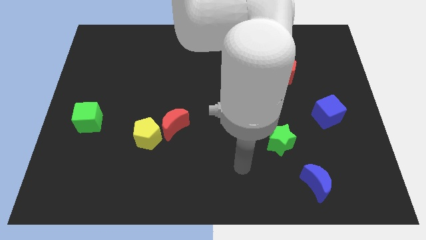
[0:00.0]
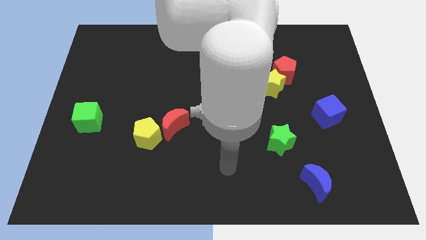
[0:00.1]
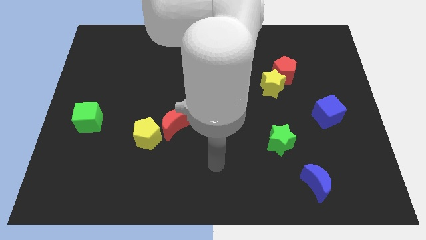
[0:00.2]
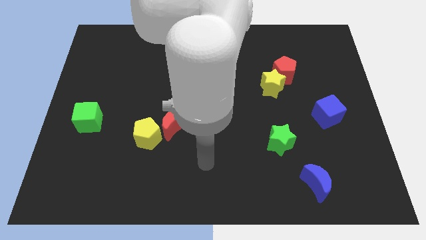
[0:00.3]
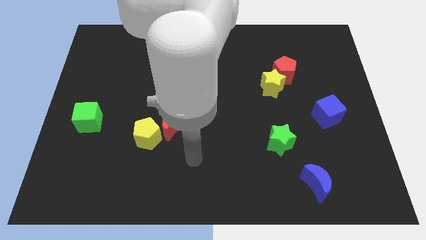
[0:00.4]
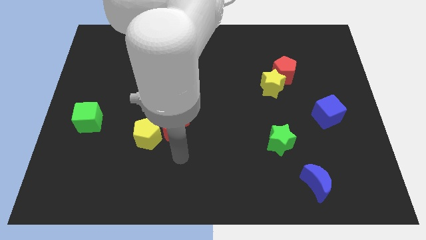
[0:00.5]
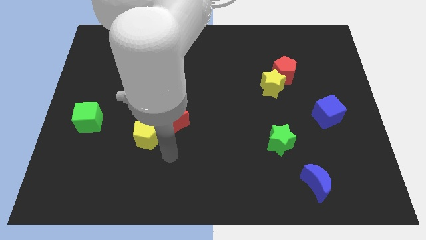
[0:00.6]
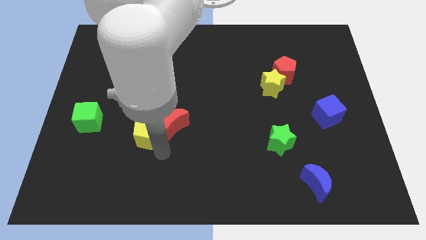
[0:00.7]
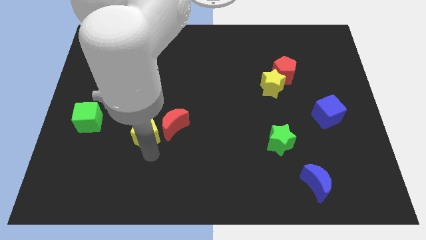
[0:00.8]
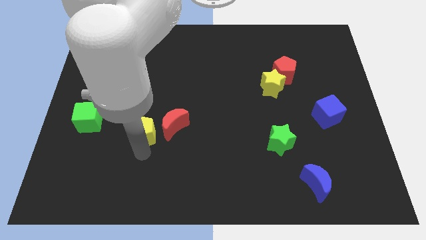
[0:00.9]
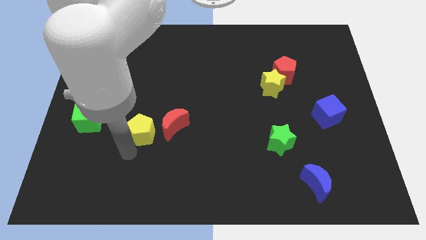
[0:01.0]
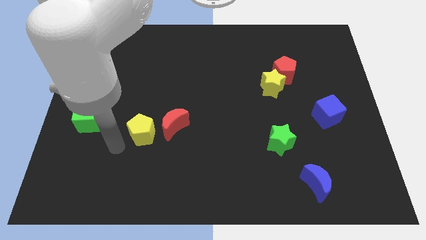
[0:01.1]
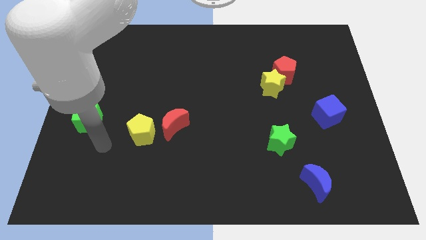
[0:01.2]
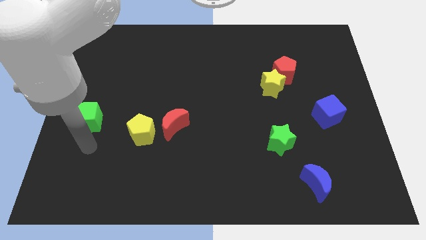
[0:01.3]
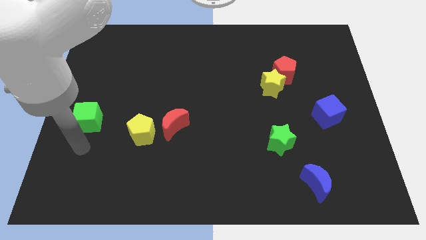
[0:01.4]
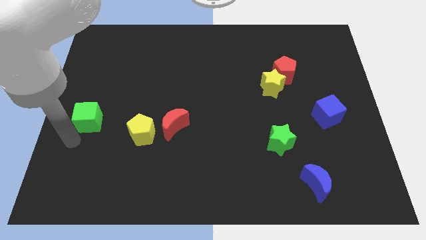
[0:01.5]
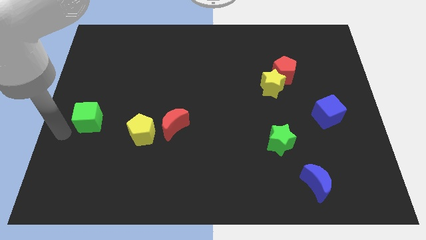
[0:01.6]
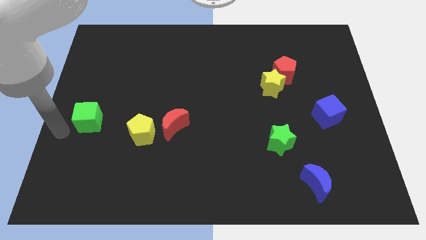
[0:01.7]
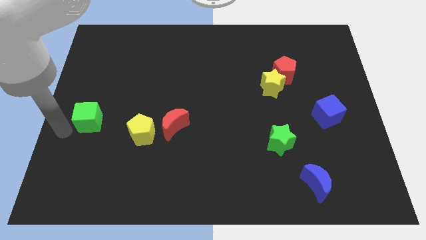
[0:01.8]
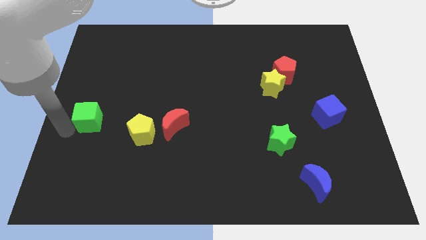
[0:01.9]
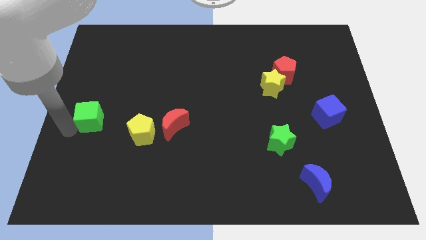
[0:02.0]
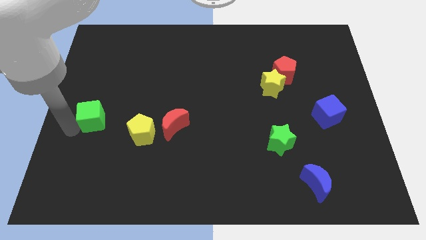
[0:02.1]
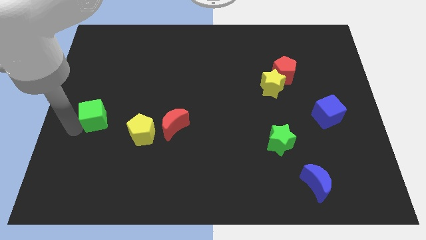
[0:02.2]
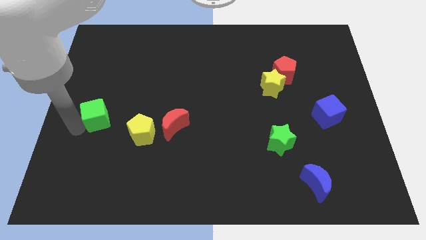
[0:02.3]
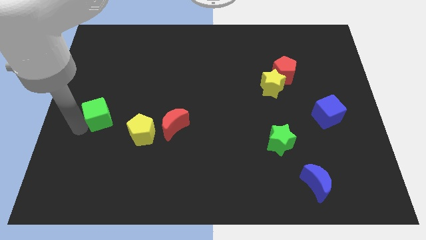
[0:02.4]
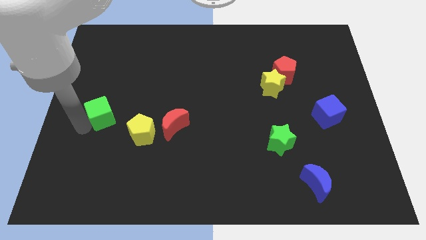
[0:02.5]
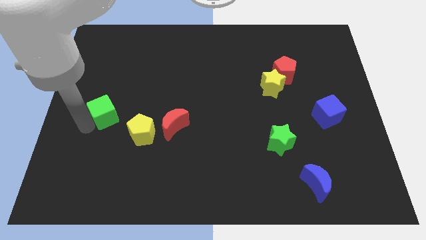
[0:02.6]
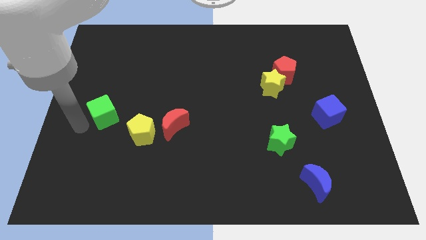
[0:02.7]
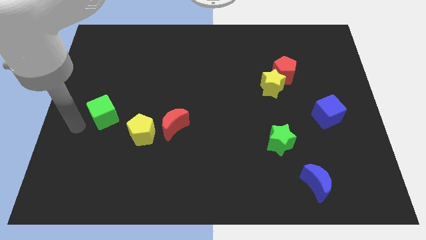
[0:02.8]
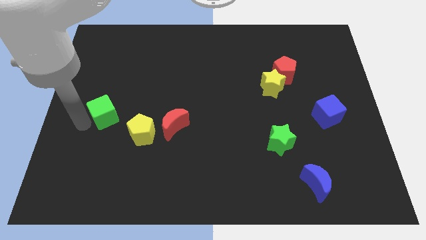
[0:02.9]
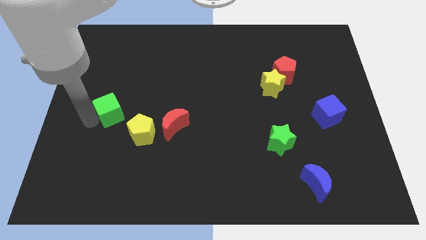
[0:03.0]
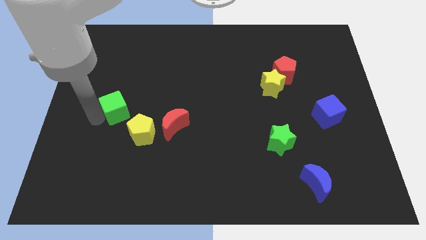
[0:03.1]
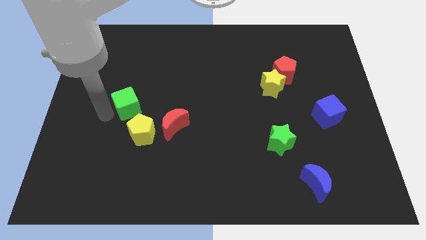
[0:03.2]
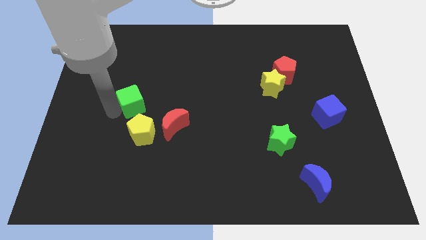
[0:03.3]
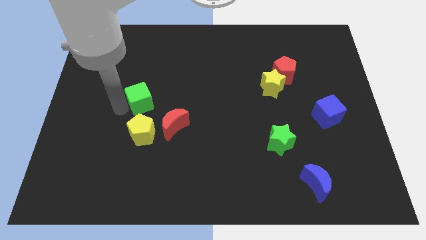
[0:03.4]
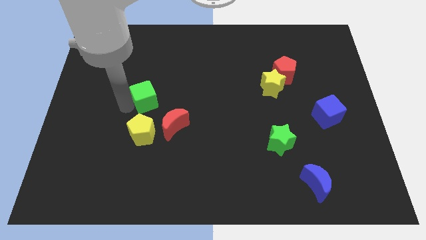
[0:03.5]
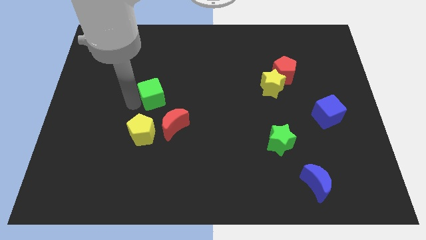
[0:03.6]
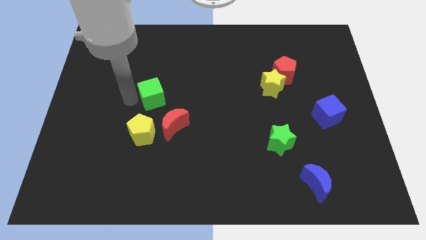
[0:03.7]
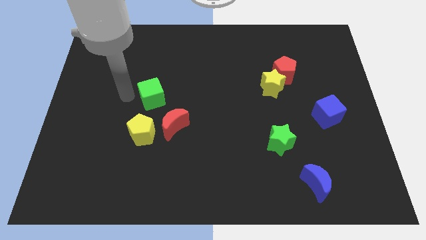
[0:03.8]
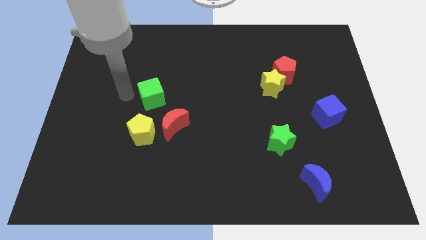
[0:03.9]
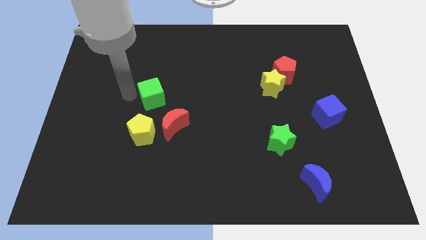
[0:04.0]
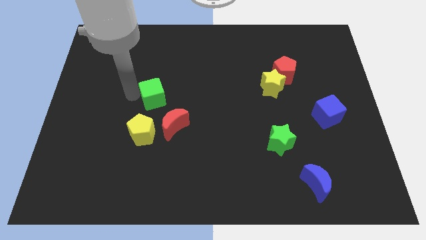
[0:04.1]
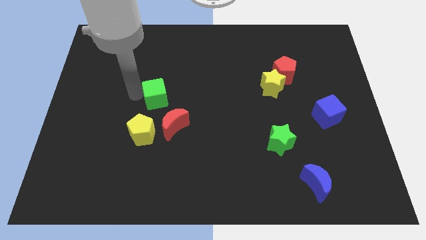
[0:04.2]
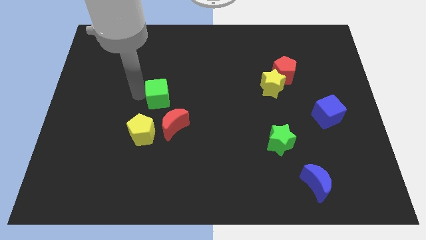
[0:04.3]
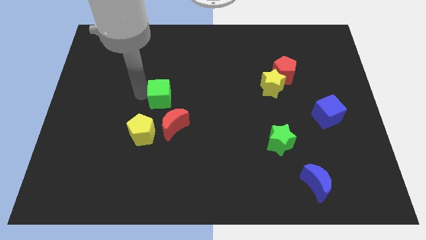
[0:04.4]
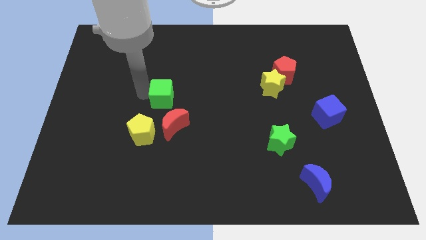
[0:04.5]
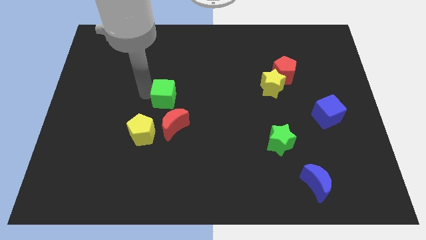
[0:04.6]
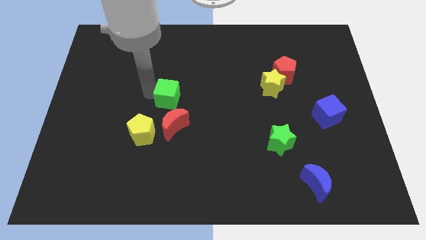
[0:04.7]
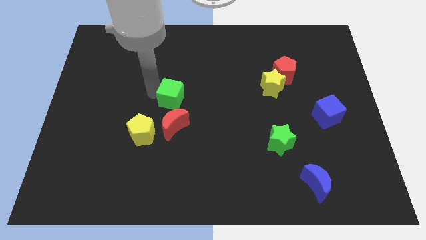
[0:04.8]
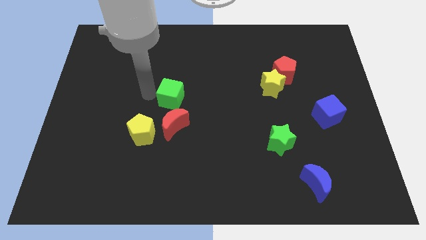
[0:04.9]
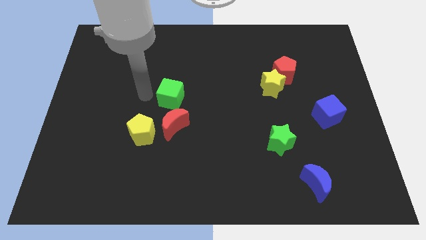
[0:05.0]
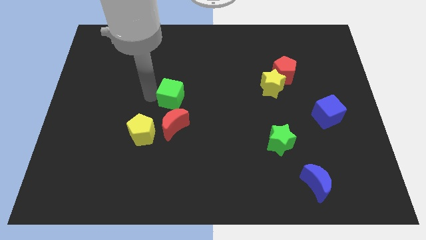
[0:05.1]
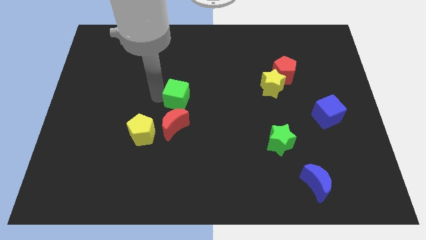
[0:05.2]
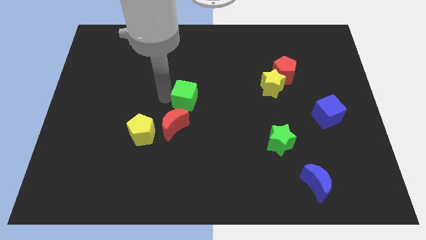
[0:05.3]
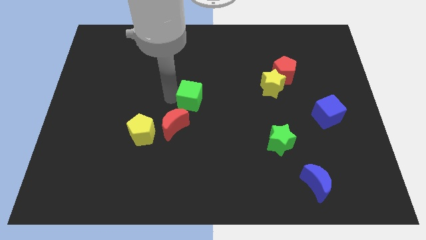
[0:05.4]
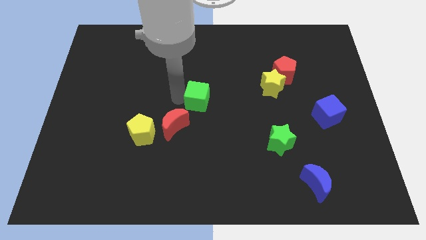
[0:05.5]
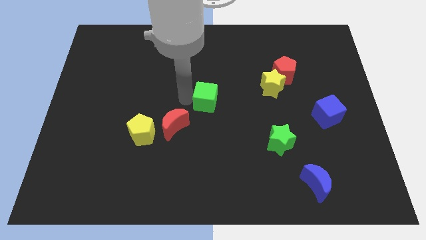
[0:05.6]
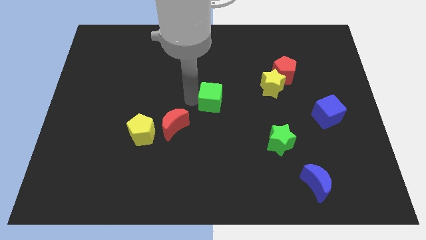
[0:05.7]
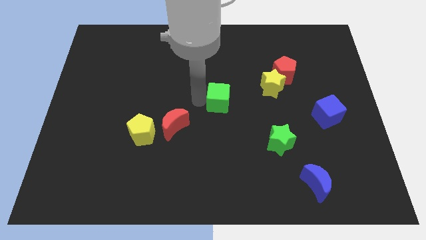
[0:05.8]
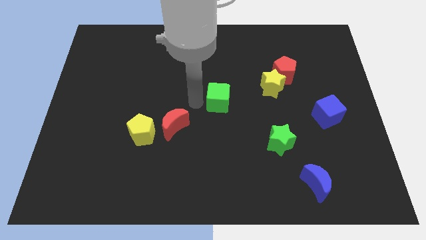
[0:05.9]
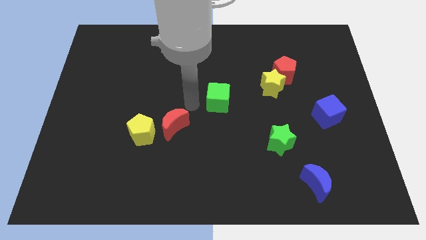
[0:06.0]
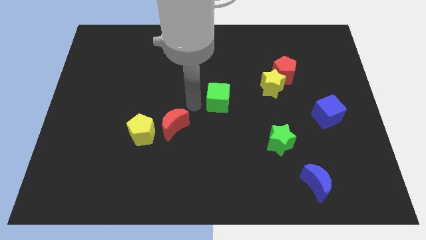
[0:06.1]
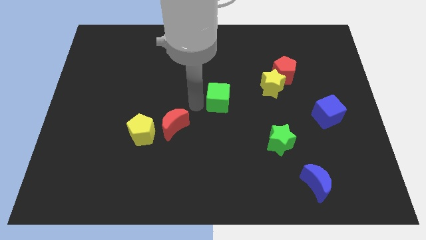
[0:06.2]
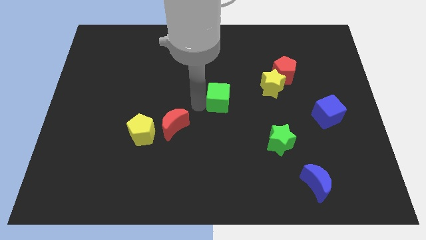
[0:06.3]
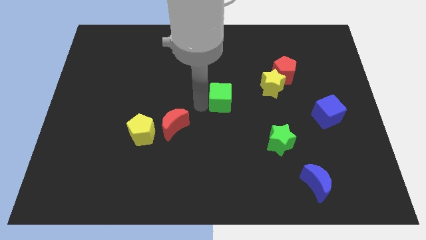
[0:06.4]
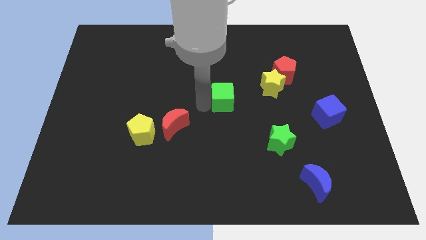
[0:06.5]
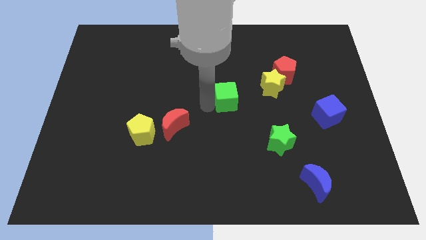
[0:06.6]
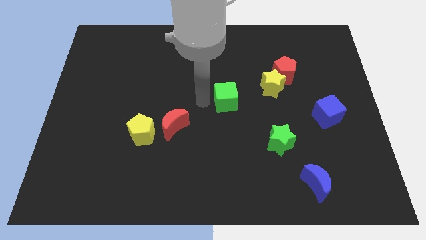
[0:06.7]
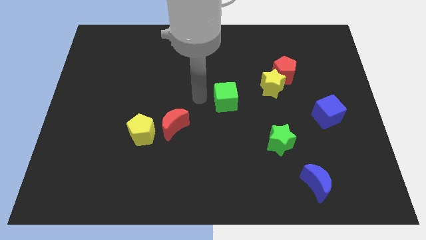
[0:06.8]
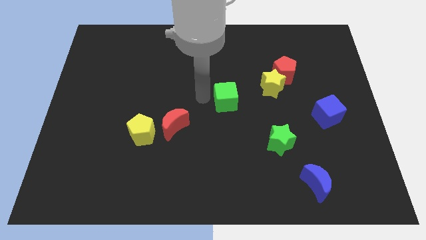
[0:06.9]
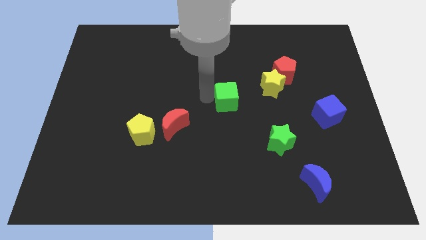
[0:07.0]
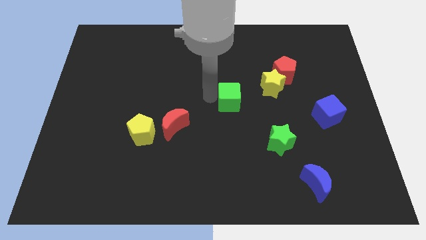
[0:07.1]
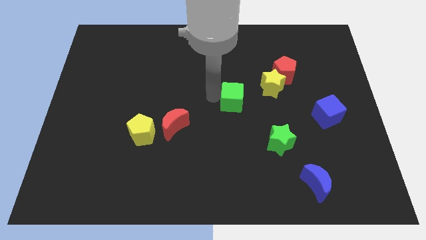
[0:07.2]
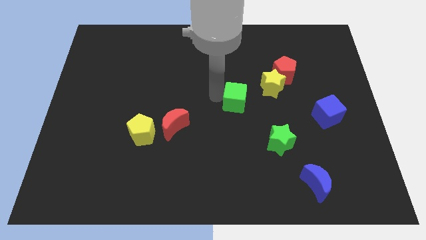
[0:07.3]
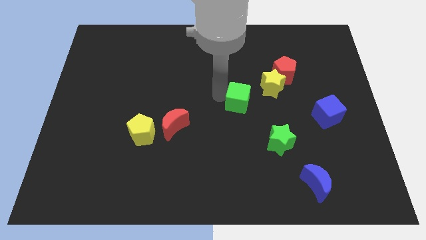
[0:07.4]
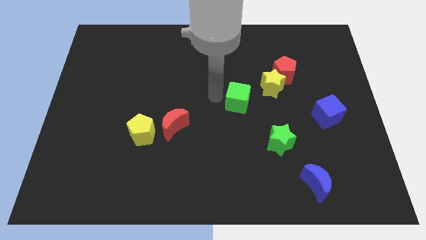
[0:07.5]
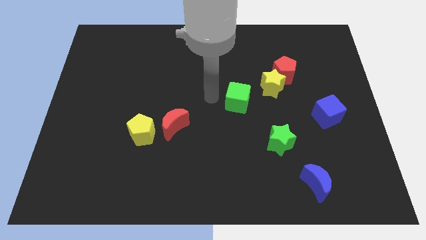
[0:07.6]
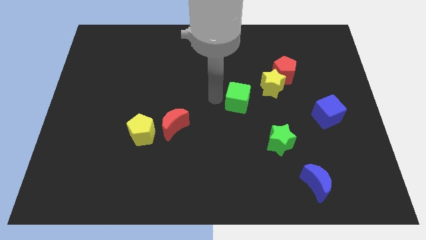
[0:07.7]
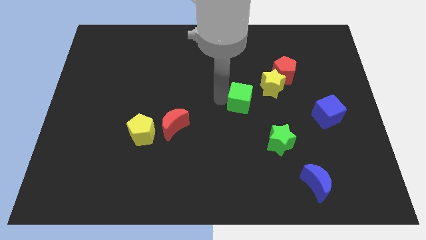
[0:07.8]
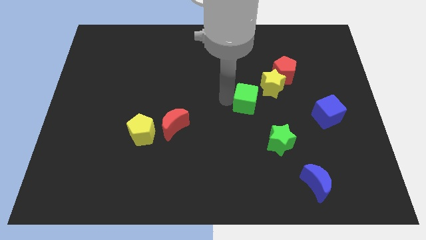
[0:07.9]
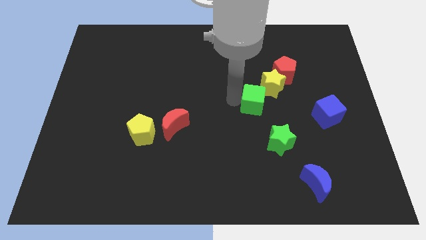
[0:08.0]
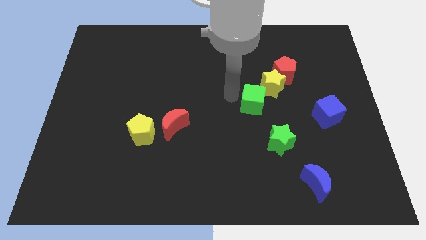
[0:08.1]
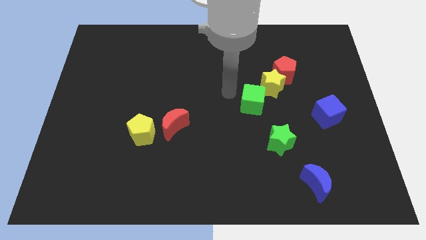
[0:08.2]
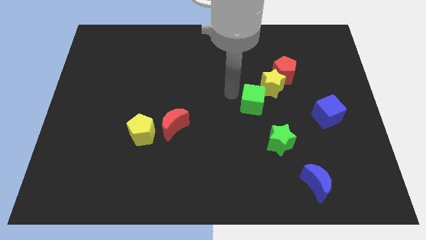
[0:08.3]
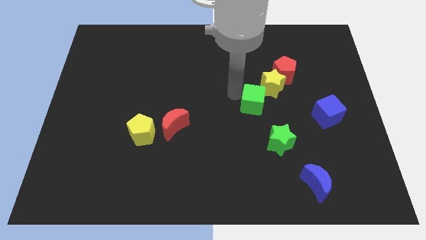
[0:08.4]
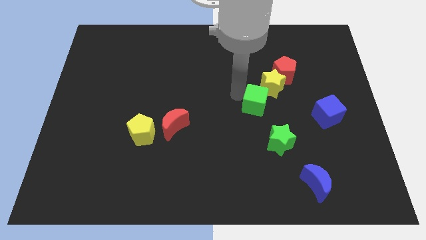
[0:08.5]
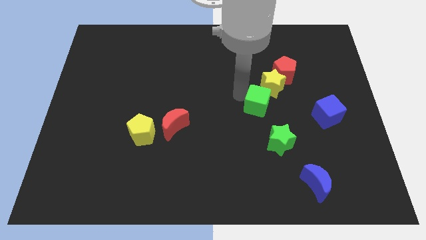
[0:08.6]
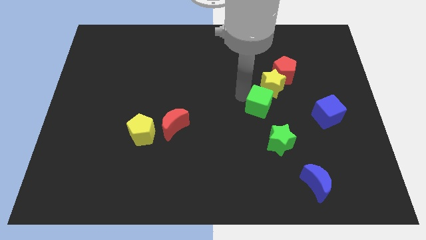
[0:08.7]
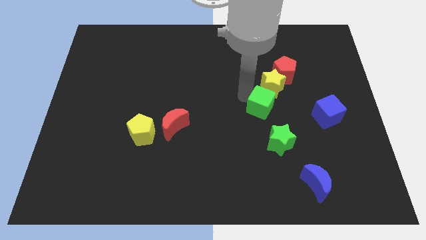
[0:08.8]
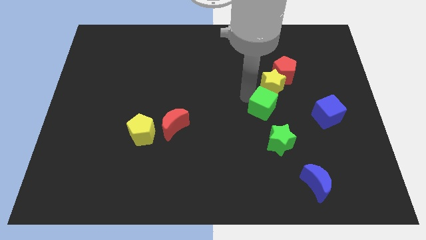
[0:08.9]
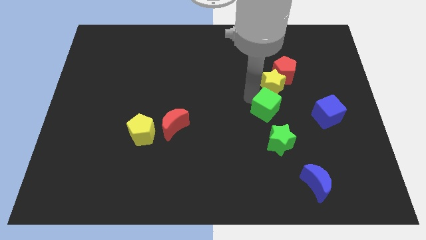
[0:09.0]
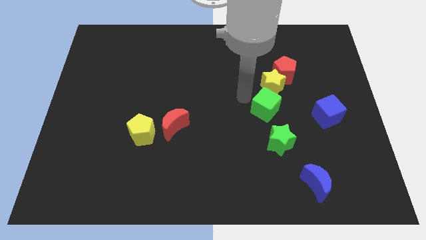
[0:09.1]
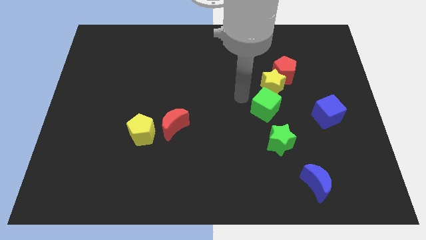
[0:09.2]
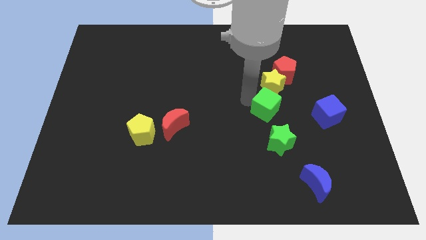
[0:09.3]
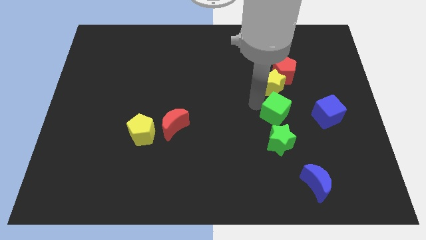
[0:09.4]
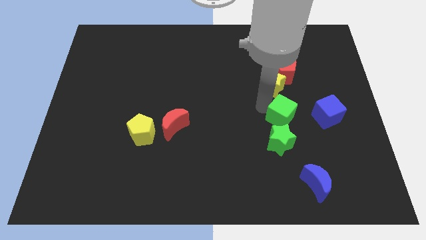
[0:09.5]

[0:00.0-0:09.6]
put the green cube diagonally up and to the right of the green star
